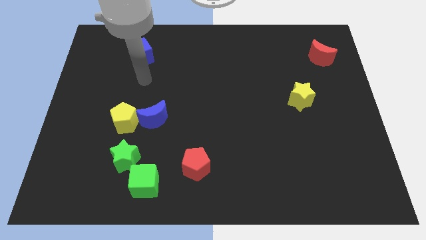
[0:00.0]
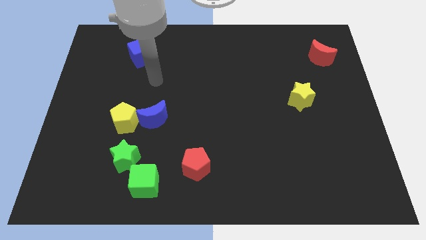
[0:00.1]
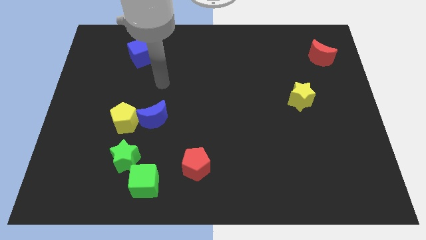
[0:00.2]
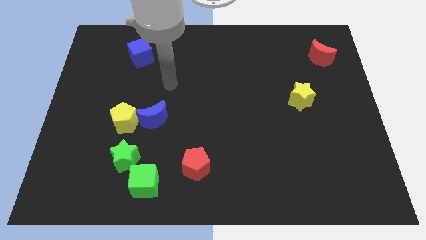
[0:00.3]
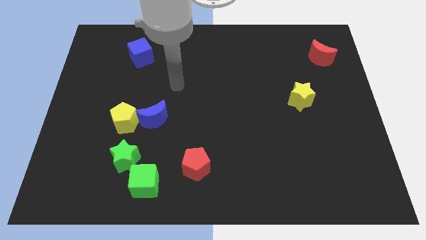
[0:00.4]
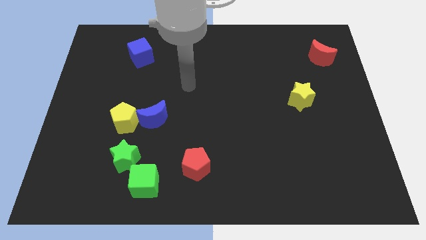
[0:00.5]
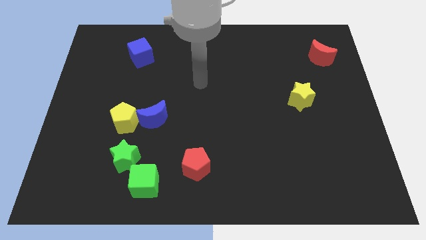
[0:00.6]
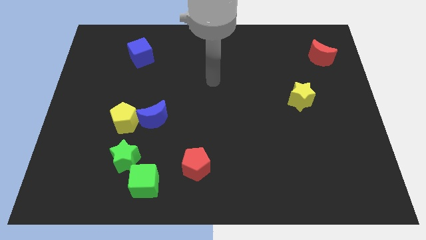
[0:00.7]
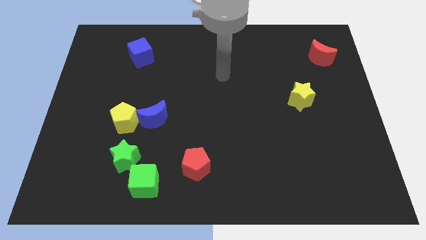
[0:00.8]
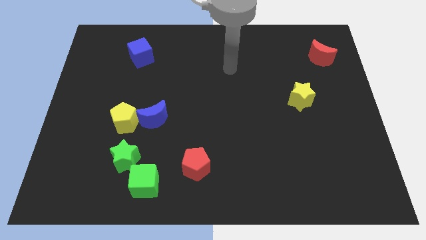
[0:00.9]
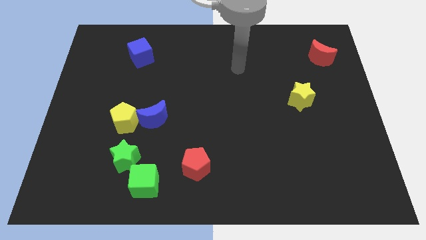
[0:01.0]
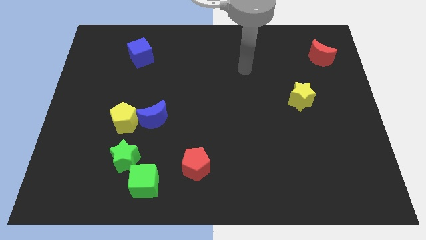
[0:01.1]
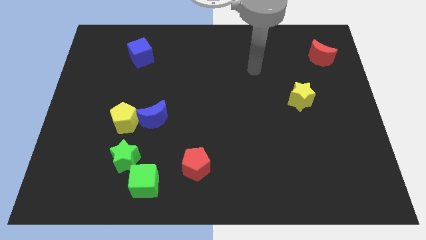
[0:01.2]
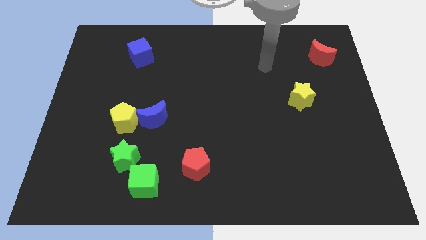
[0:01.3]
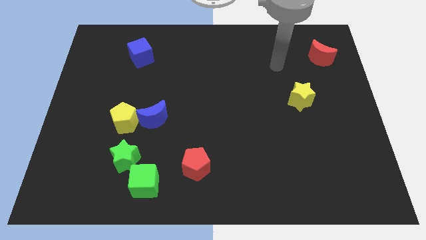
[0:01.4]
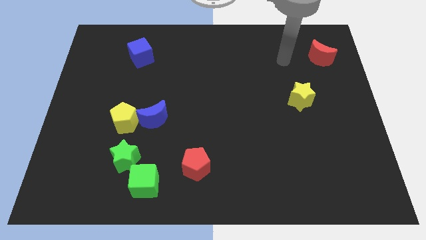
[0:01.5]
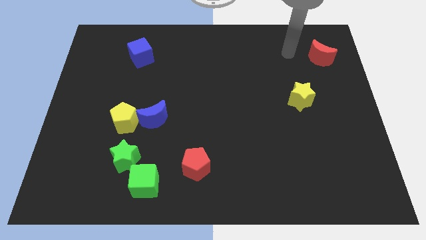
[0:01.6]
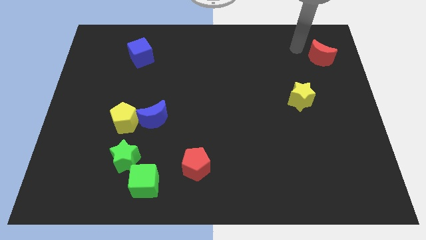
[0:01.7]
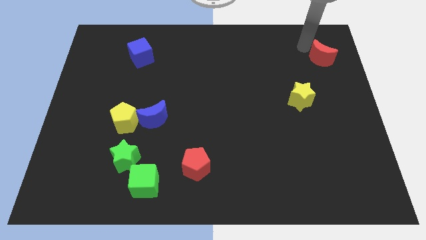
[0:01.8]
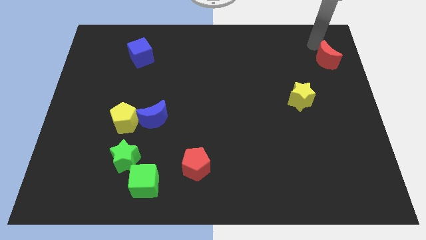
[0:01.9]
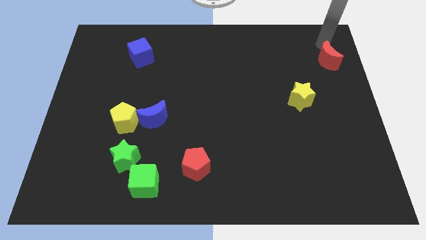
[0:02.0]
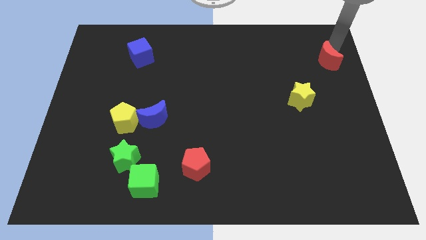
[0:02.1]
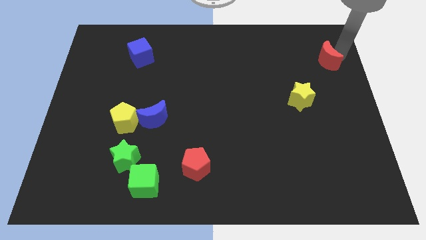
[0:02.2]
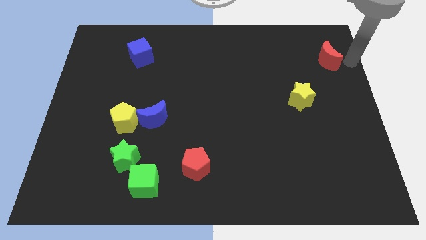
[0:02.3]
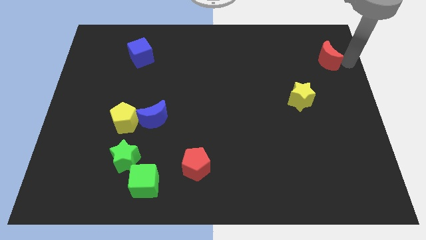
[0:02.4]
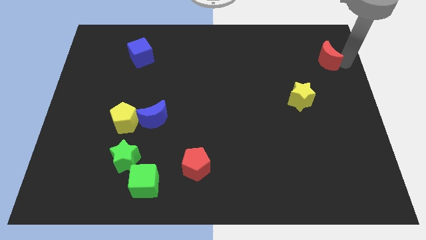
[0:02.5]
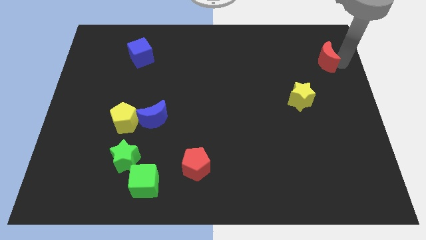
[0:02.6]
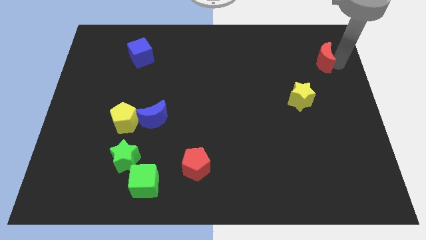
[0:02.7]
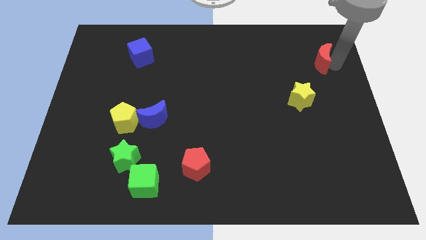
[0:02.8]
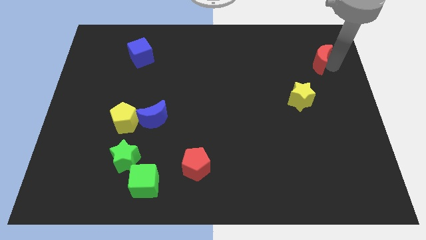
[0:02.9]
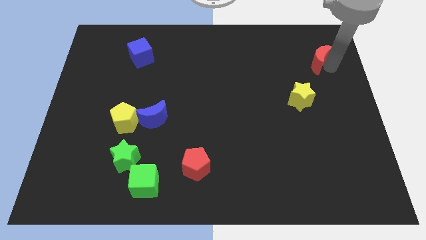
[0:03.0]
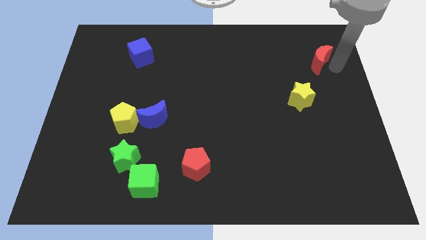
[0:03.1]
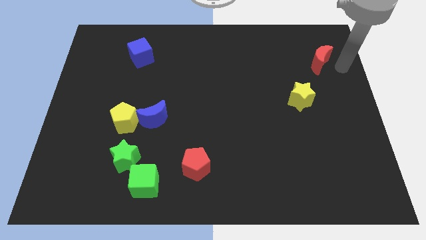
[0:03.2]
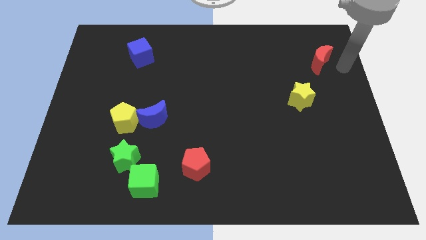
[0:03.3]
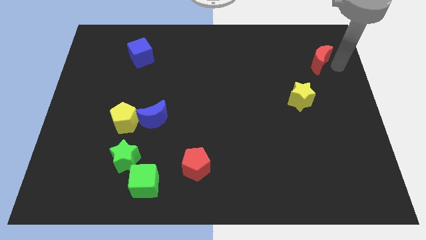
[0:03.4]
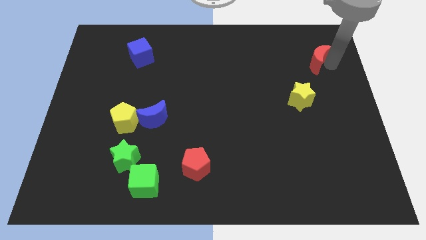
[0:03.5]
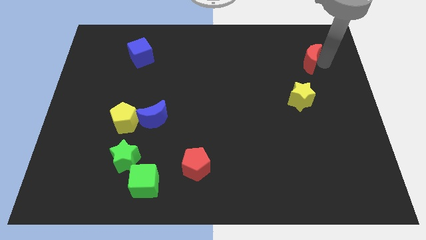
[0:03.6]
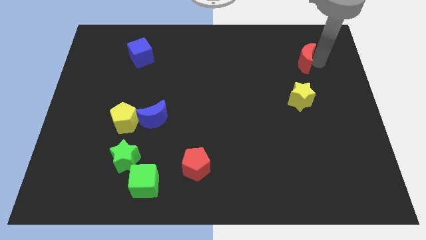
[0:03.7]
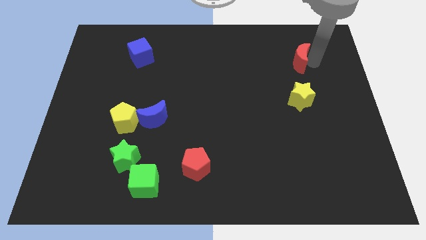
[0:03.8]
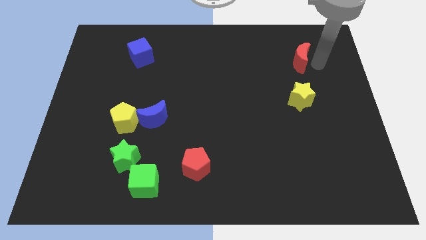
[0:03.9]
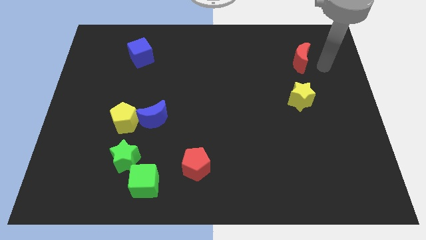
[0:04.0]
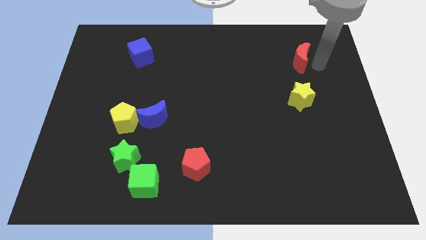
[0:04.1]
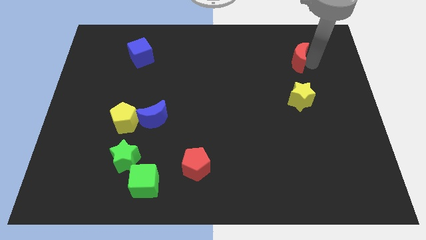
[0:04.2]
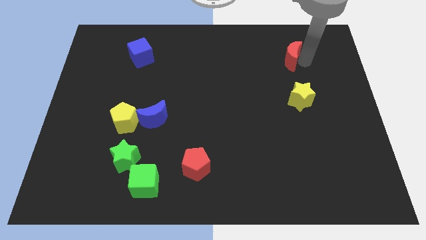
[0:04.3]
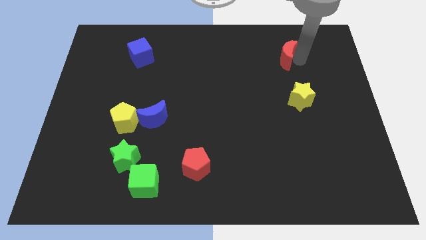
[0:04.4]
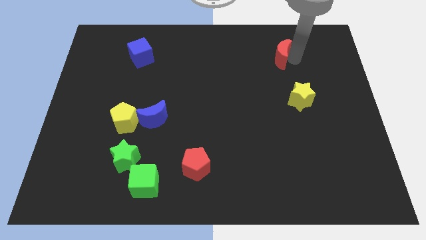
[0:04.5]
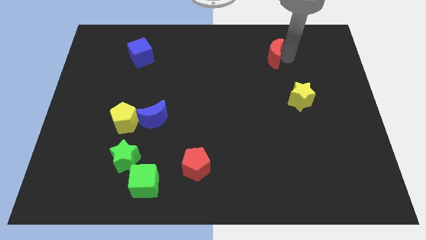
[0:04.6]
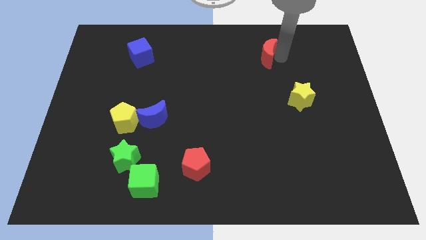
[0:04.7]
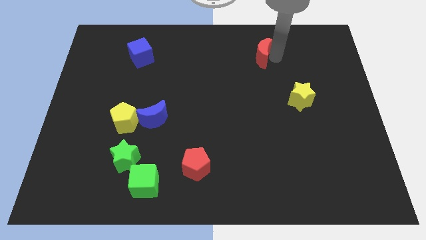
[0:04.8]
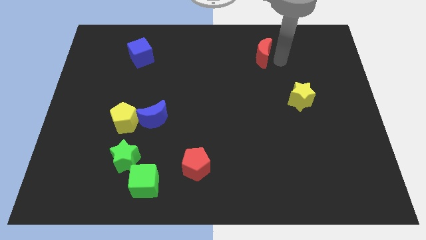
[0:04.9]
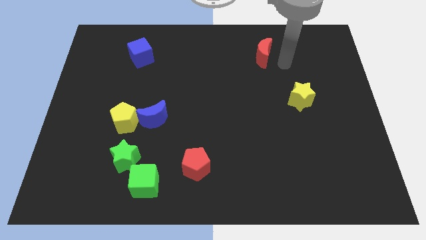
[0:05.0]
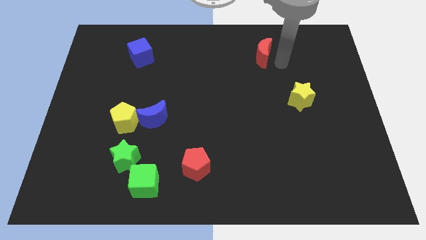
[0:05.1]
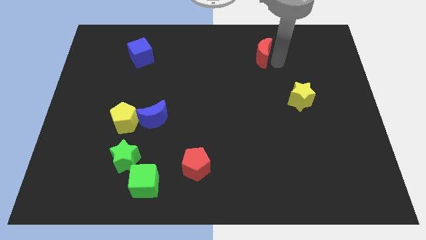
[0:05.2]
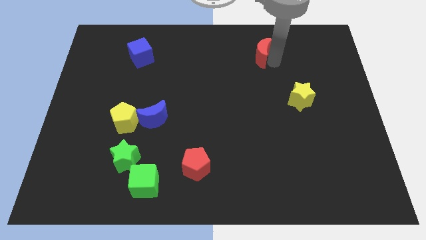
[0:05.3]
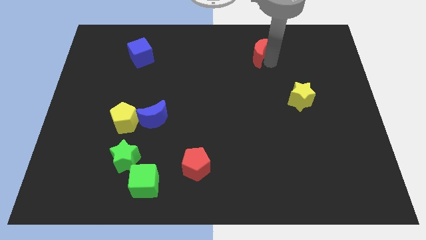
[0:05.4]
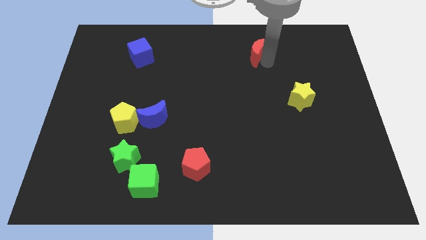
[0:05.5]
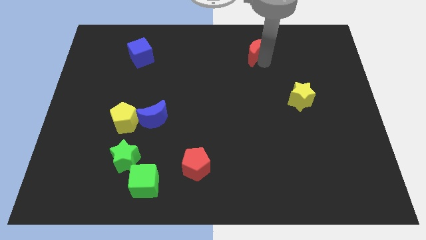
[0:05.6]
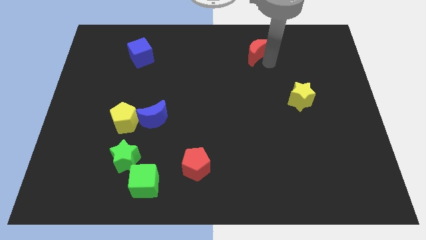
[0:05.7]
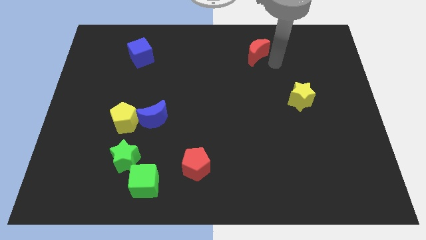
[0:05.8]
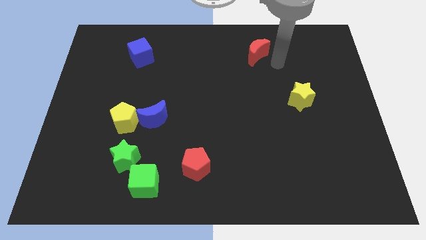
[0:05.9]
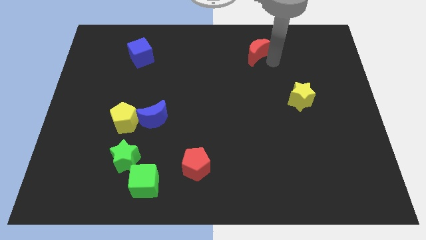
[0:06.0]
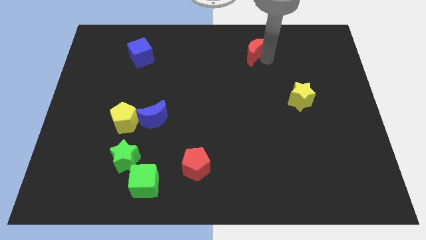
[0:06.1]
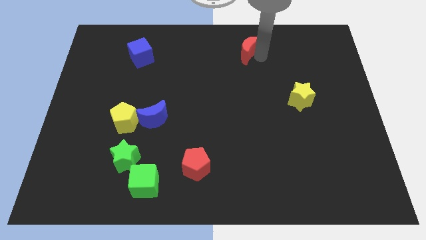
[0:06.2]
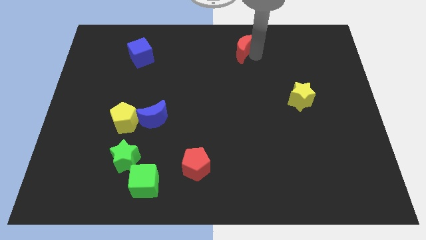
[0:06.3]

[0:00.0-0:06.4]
put the red moon to the towards your base

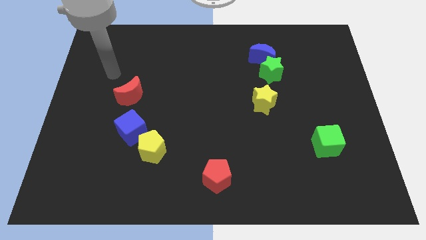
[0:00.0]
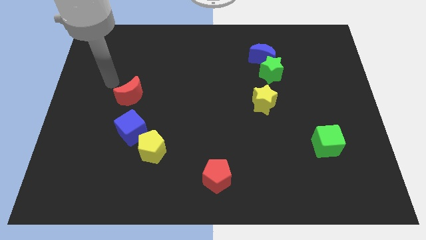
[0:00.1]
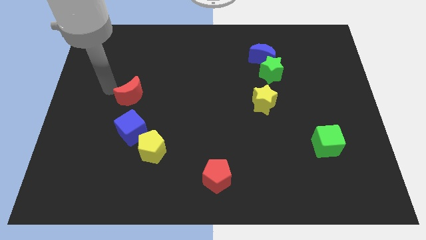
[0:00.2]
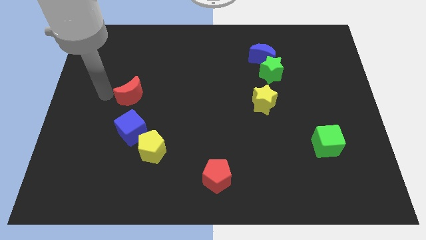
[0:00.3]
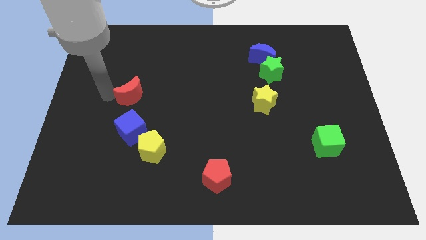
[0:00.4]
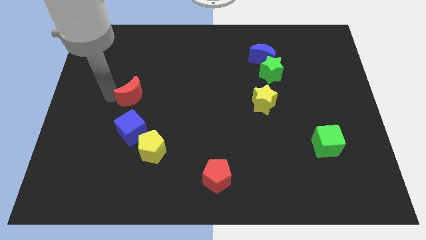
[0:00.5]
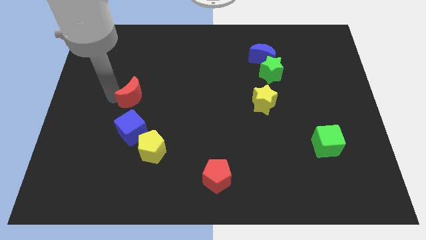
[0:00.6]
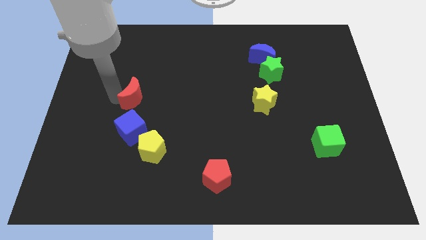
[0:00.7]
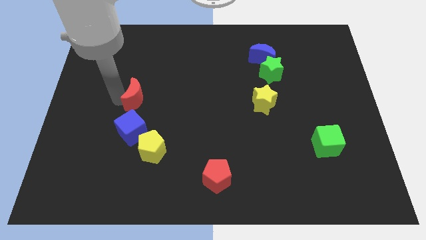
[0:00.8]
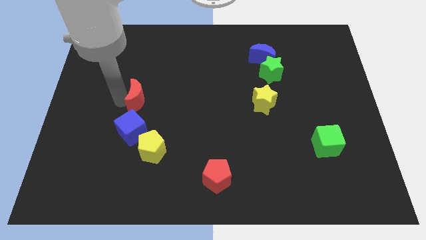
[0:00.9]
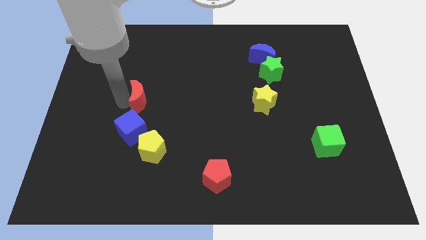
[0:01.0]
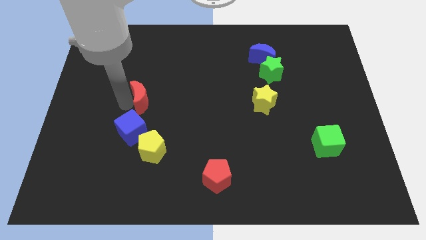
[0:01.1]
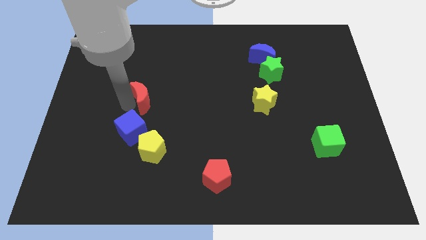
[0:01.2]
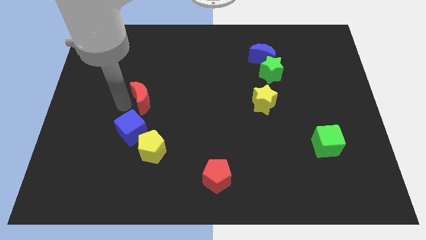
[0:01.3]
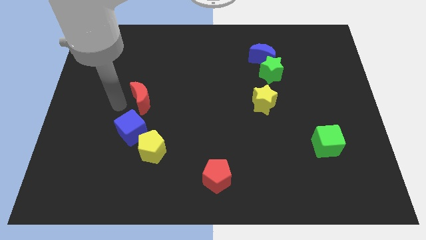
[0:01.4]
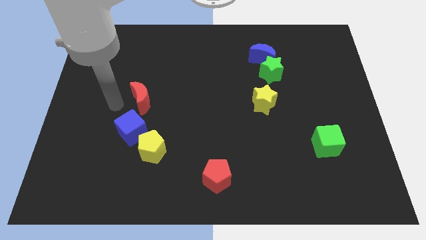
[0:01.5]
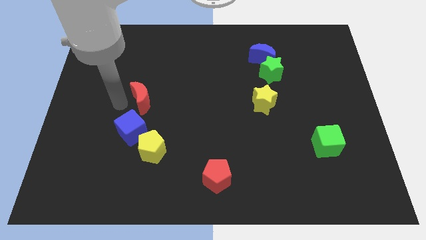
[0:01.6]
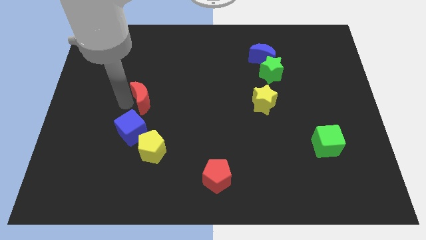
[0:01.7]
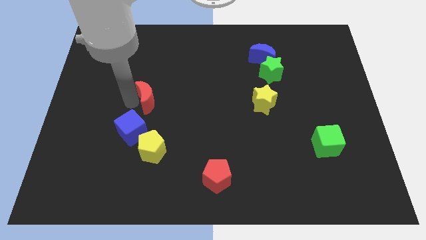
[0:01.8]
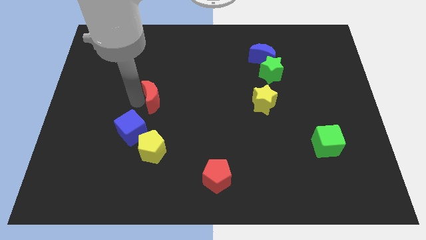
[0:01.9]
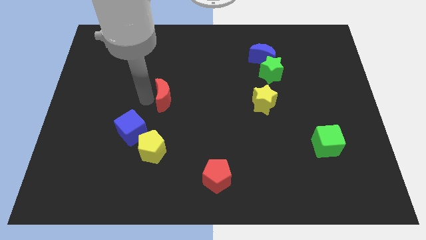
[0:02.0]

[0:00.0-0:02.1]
slide the red moon to the middle of the board
